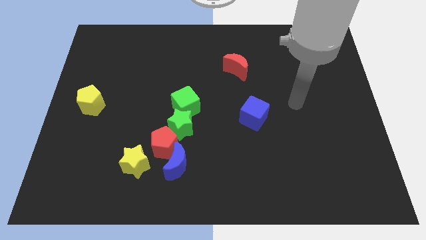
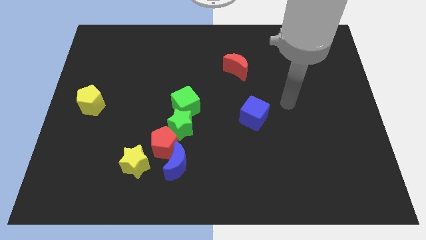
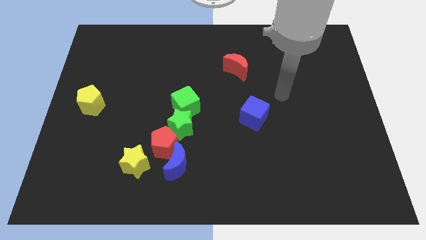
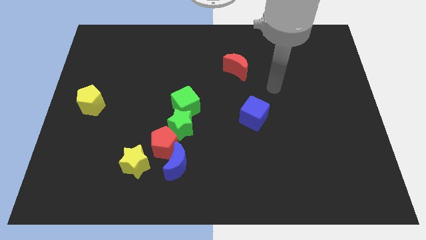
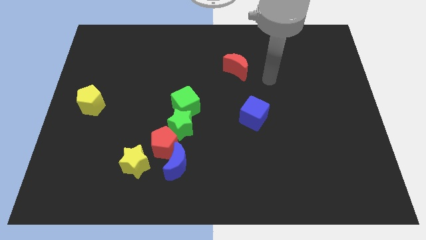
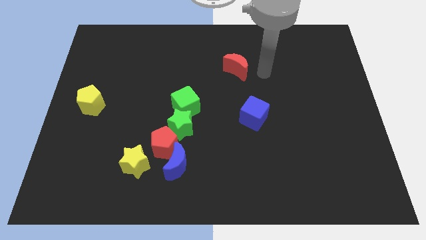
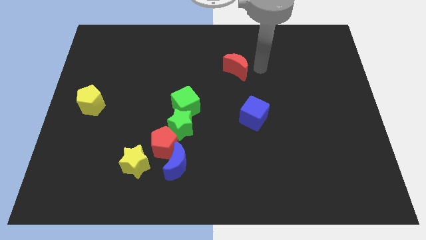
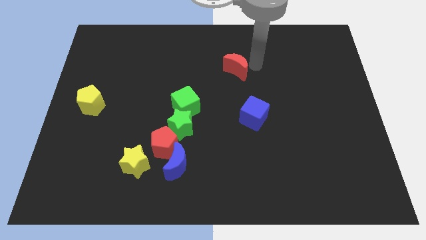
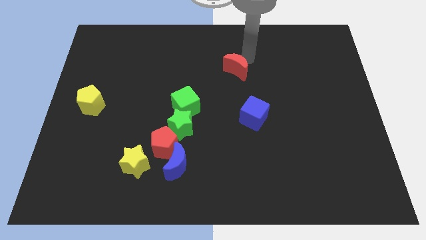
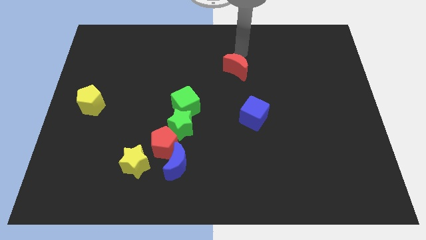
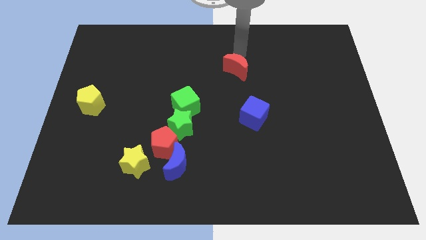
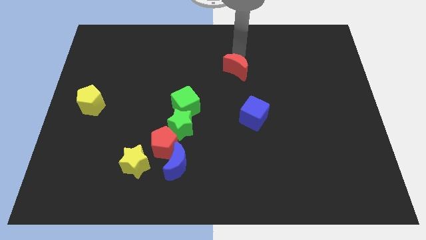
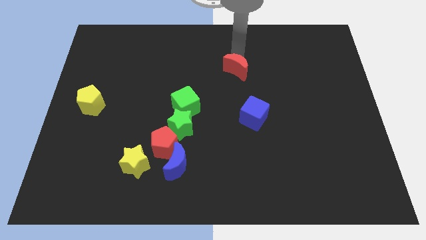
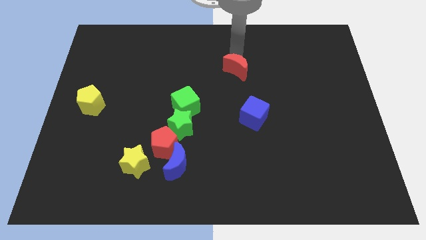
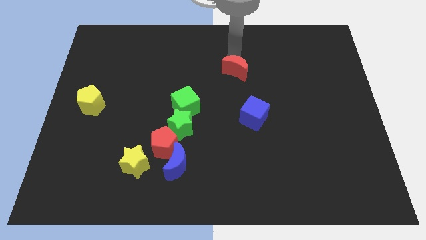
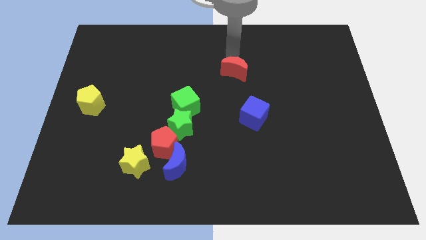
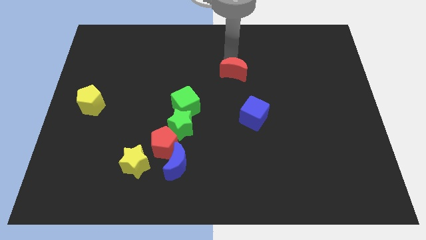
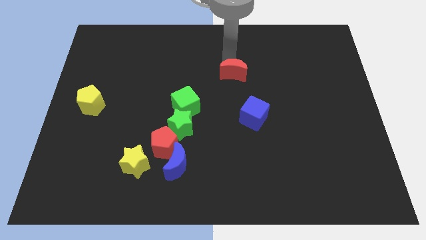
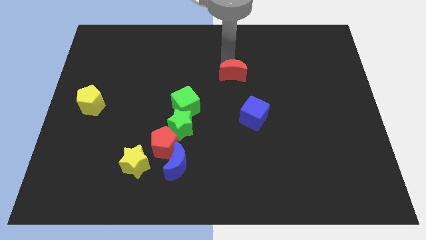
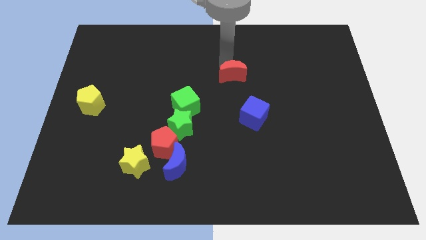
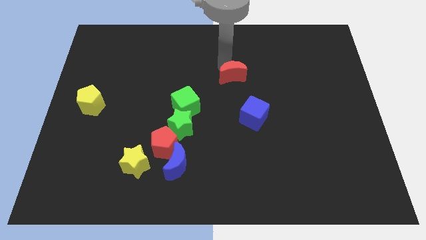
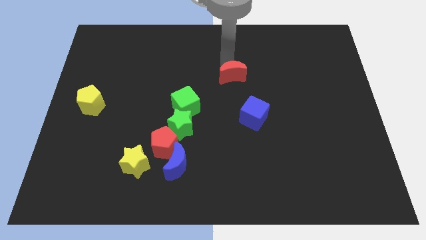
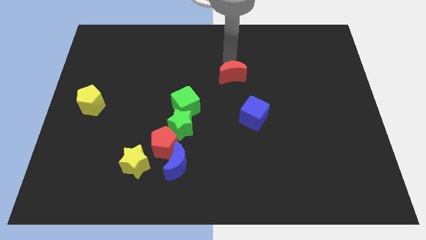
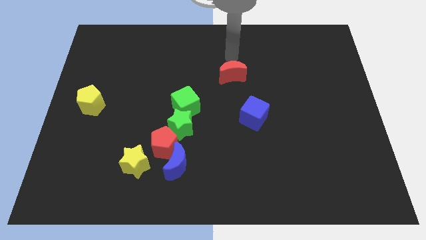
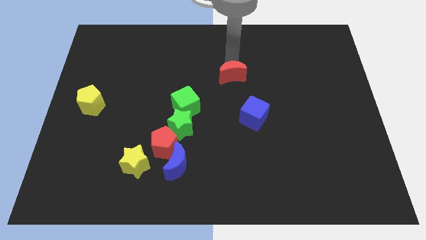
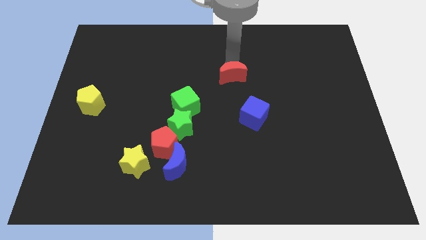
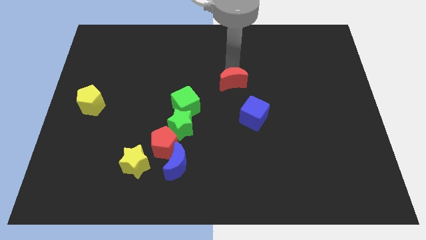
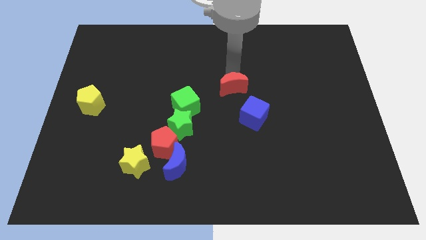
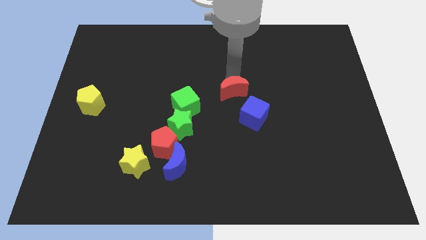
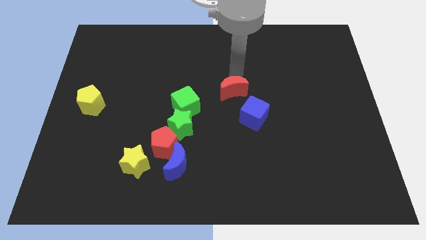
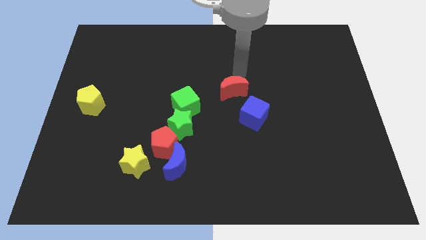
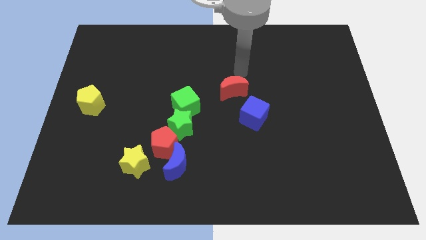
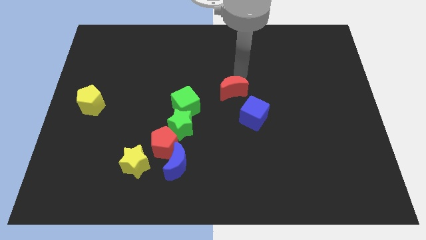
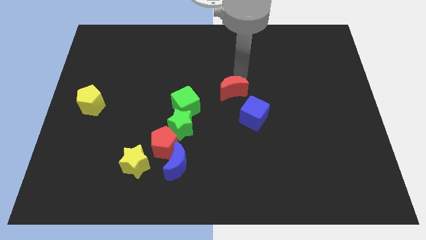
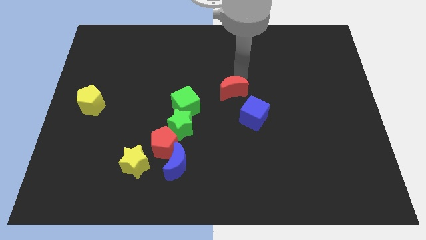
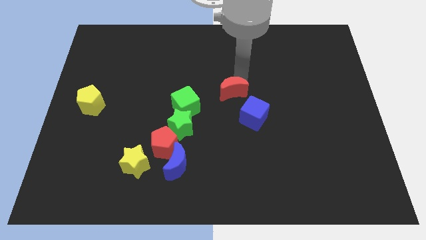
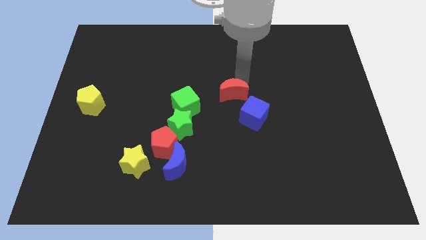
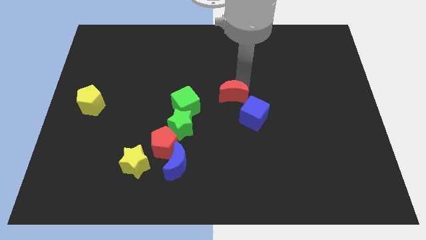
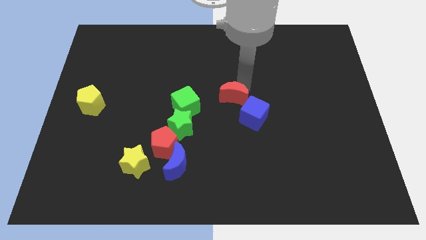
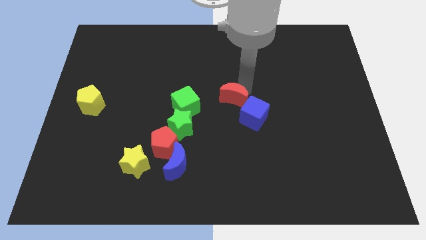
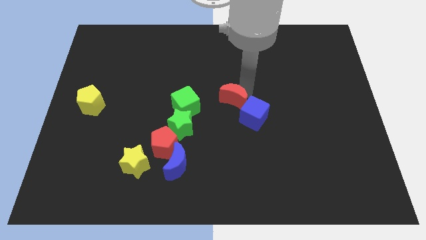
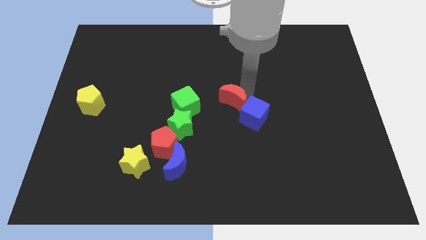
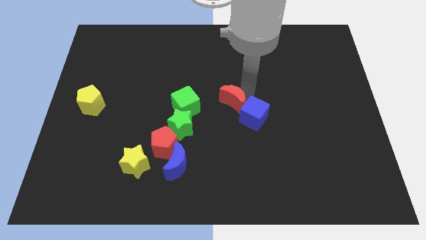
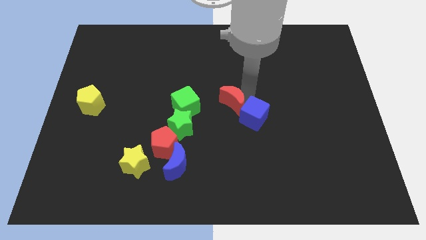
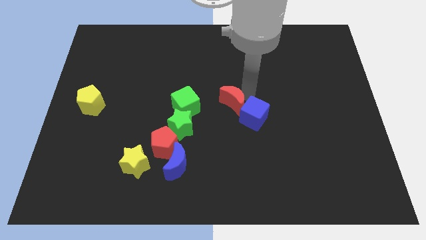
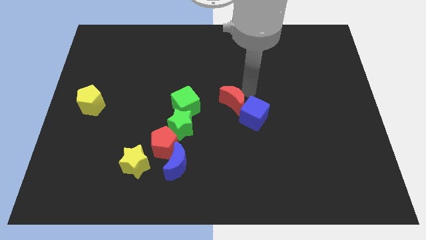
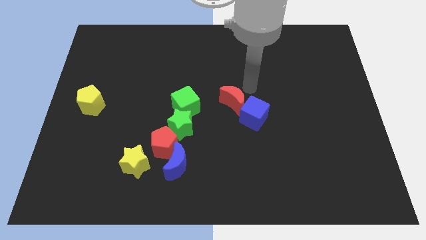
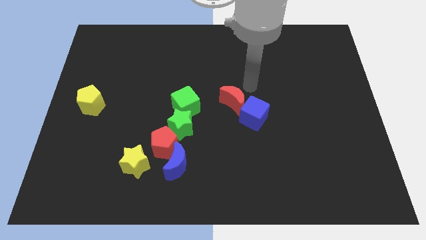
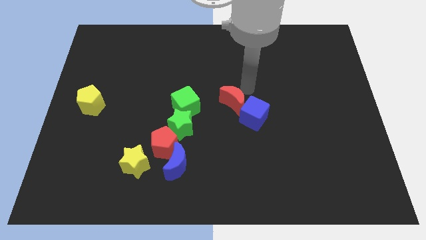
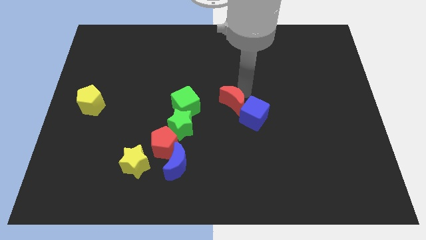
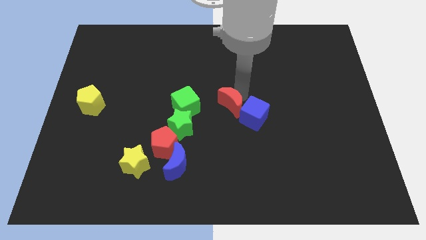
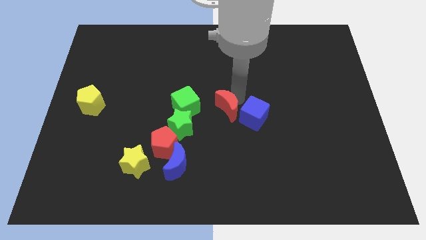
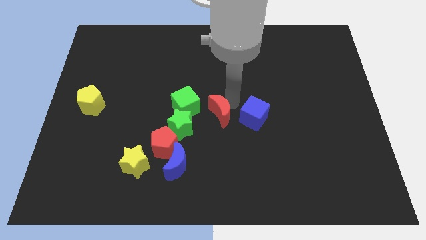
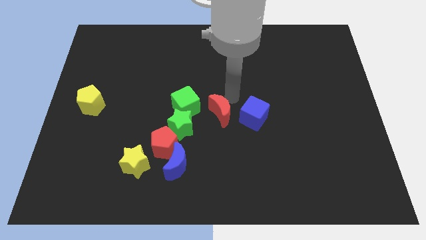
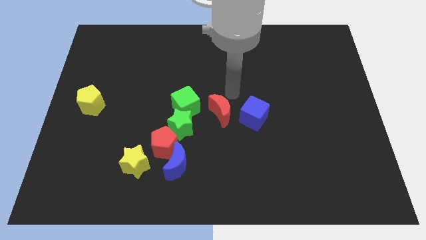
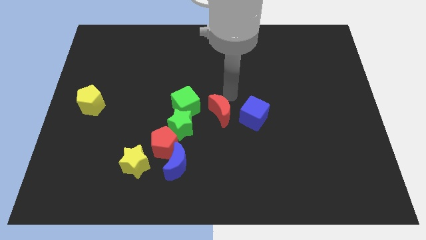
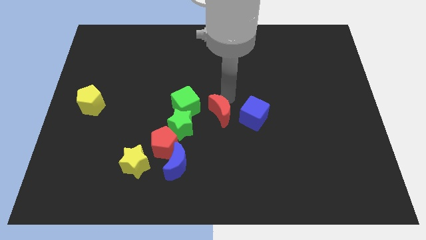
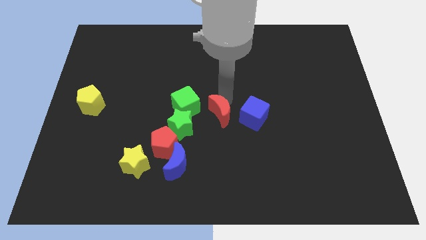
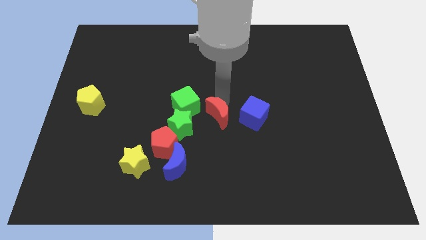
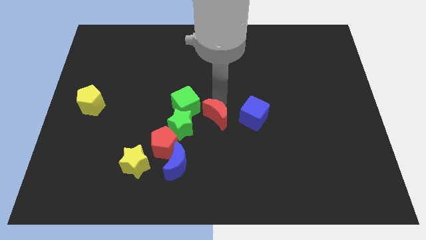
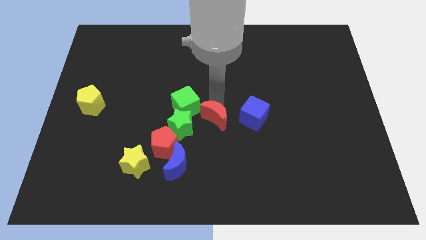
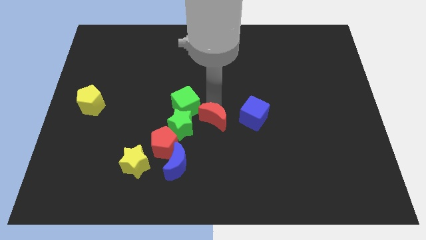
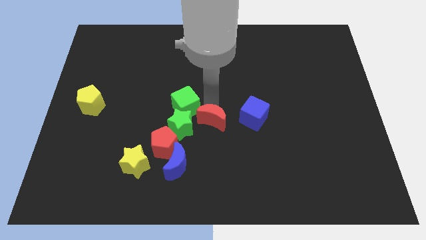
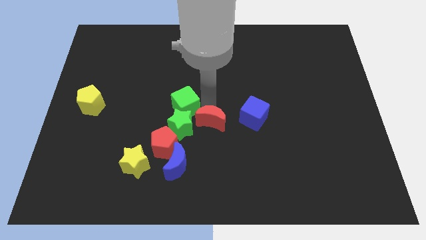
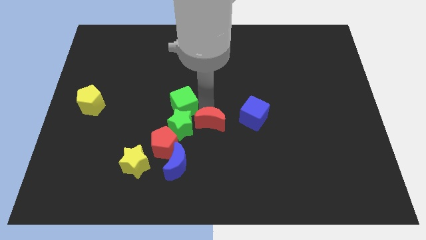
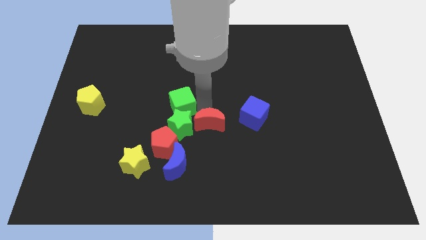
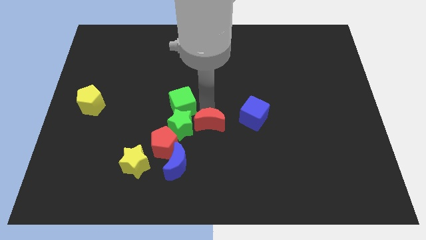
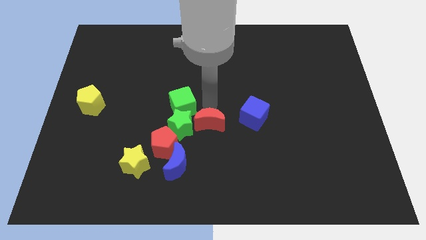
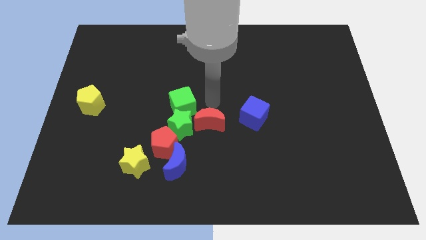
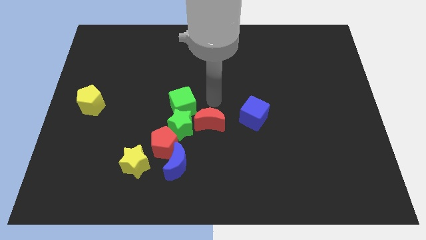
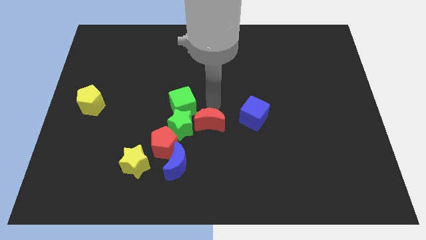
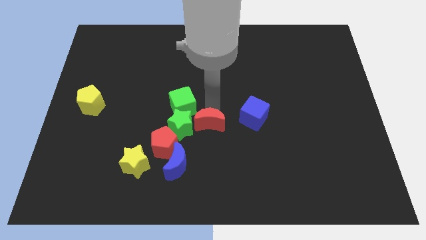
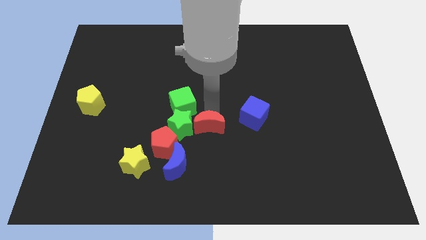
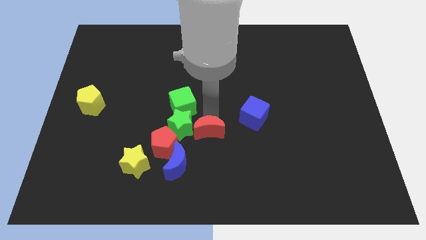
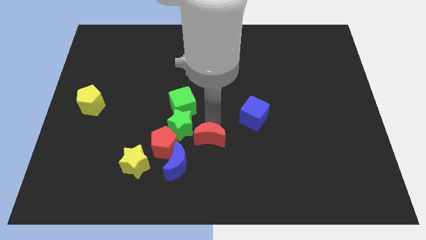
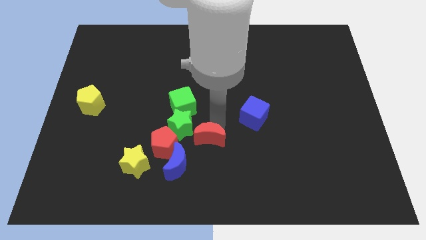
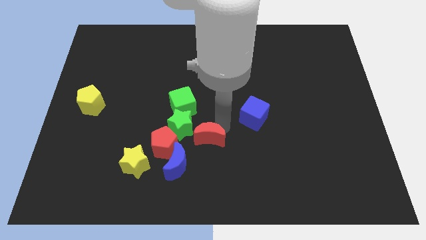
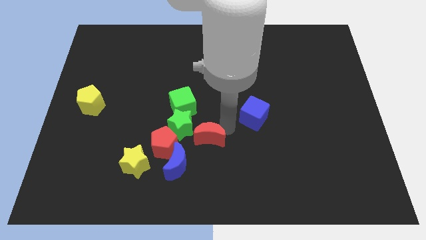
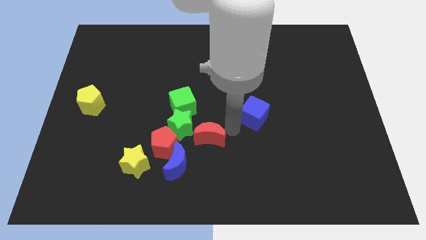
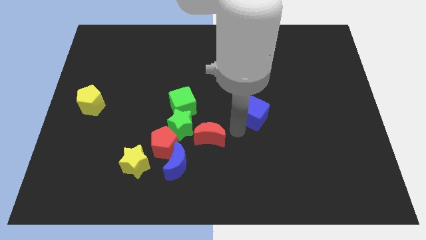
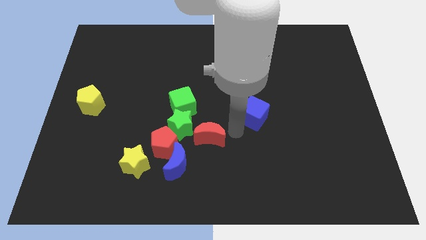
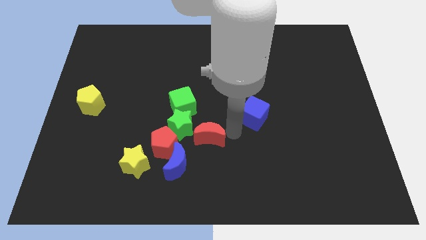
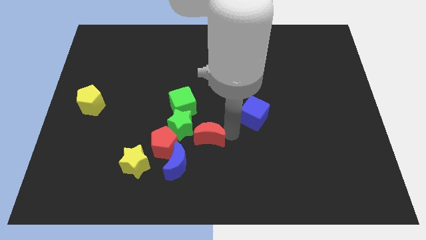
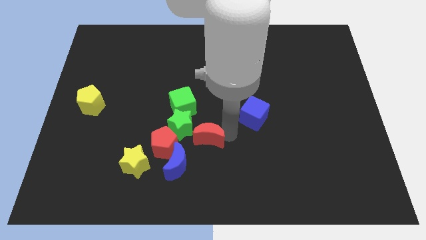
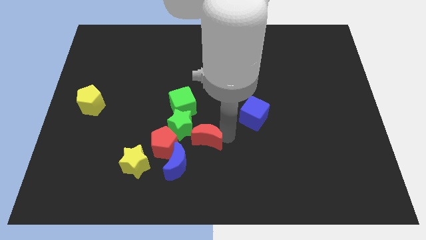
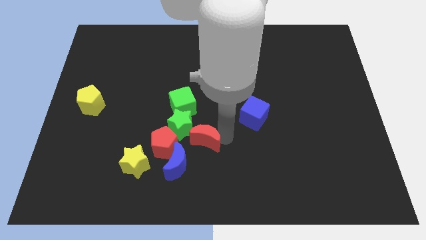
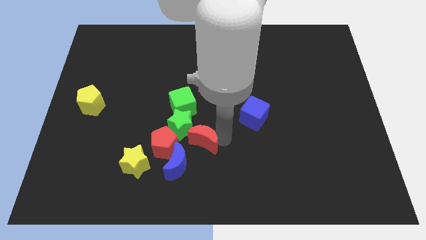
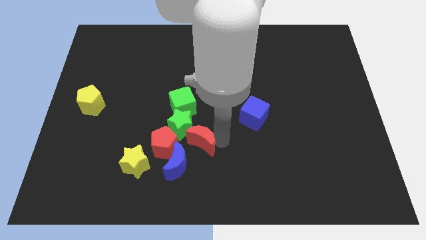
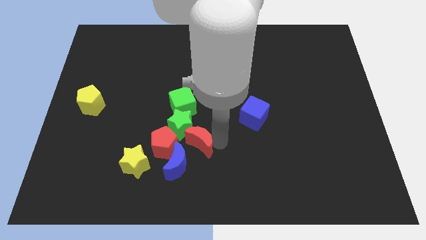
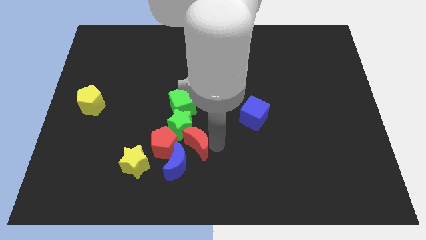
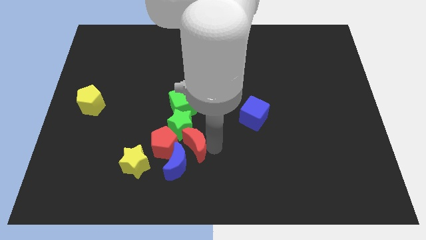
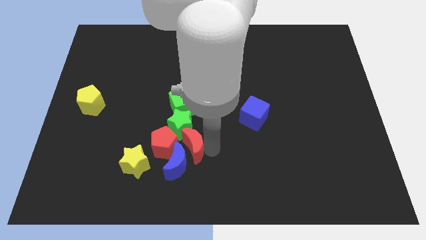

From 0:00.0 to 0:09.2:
put the red moon close to the red pentagon
